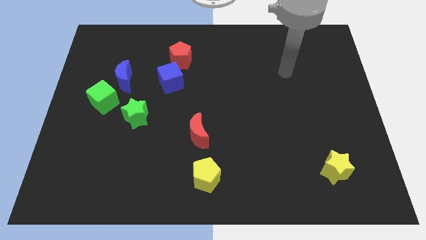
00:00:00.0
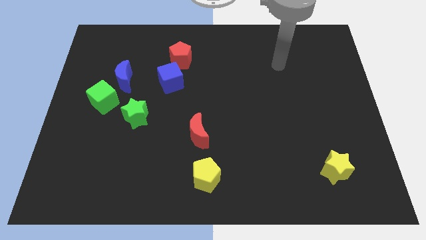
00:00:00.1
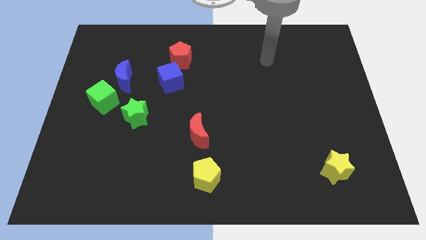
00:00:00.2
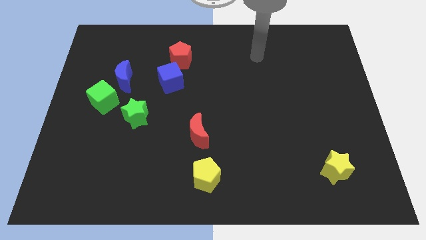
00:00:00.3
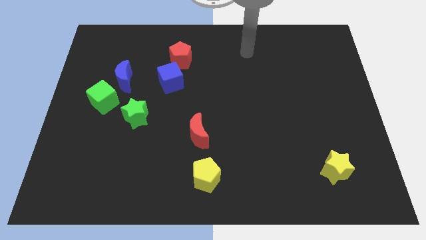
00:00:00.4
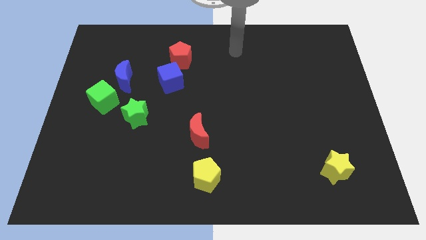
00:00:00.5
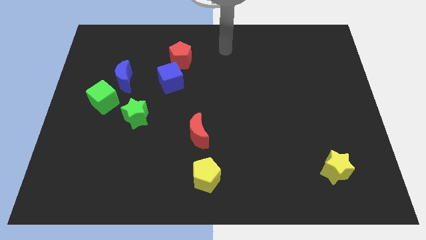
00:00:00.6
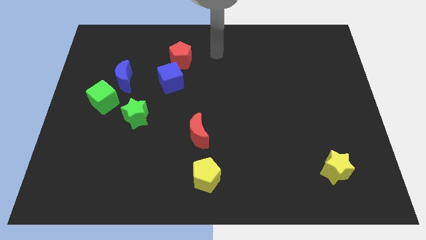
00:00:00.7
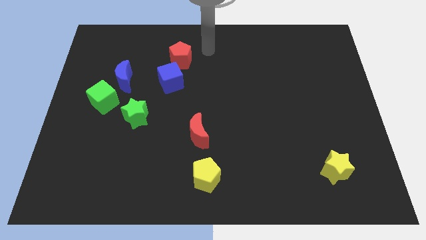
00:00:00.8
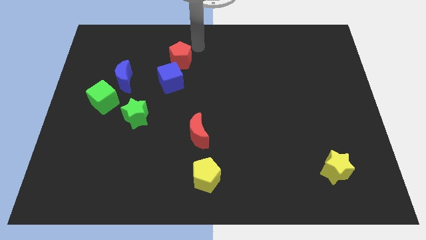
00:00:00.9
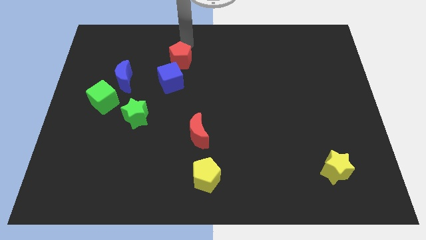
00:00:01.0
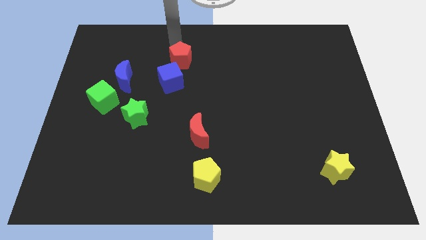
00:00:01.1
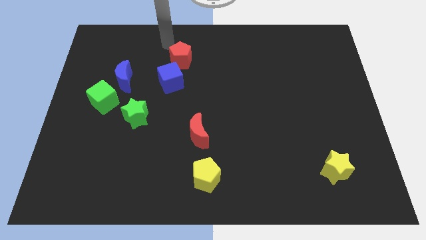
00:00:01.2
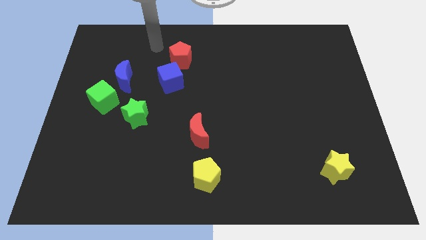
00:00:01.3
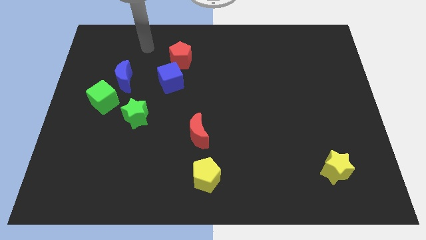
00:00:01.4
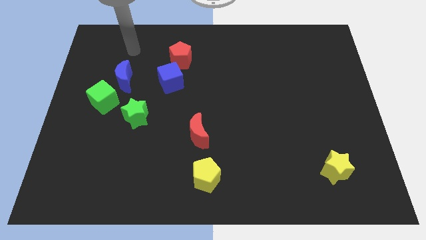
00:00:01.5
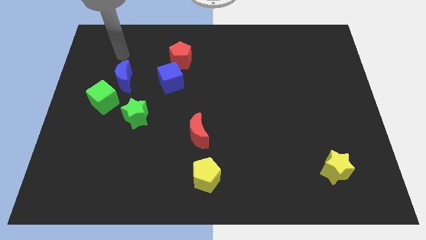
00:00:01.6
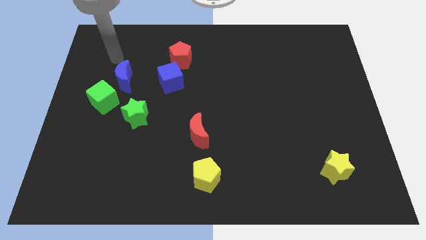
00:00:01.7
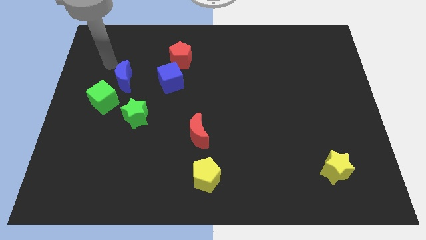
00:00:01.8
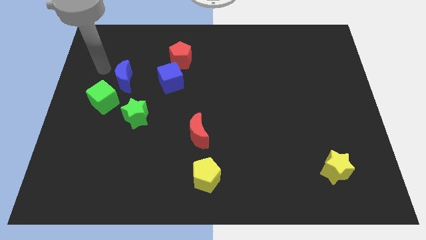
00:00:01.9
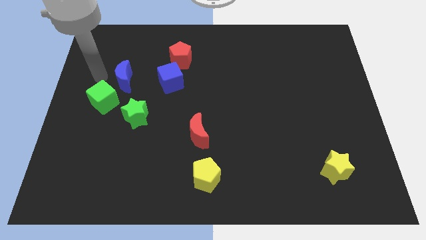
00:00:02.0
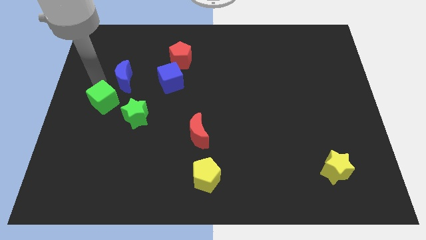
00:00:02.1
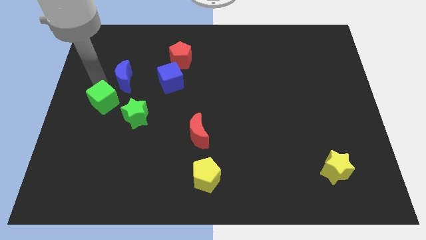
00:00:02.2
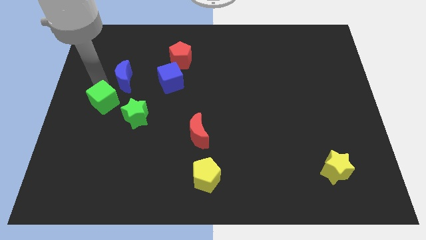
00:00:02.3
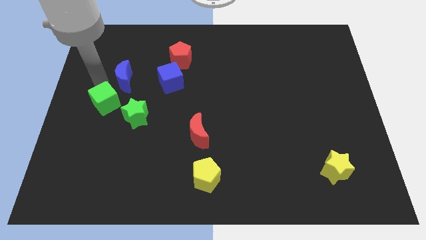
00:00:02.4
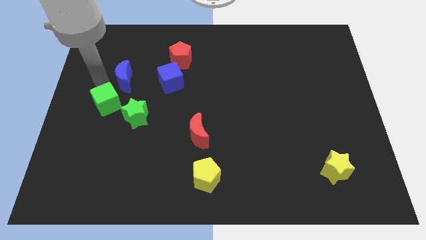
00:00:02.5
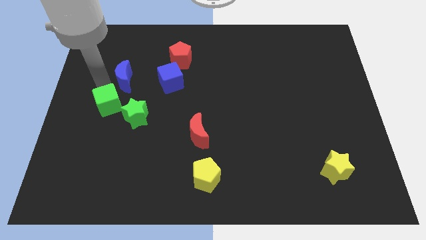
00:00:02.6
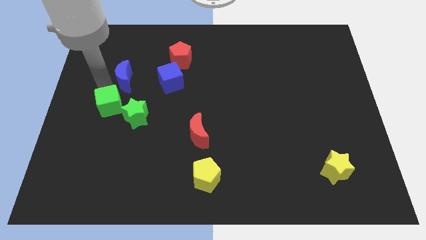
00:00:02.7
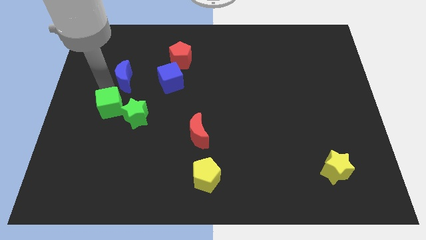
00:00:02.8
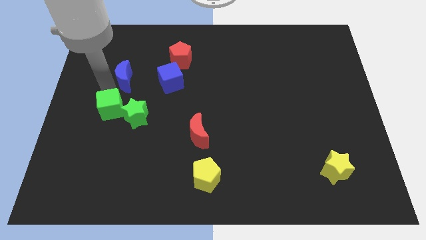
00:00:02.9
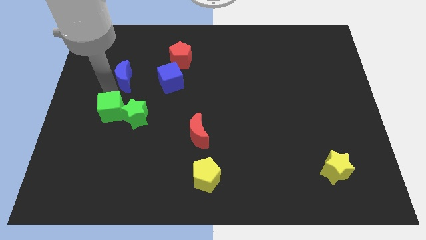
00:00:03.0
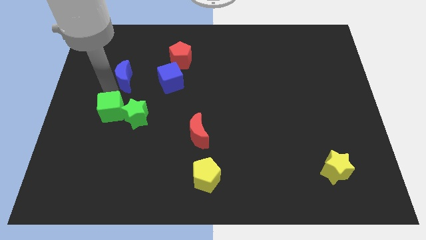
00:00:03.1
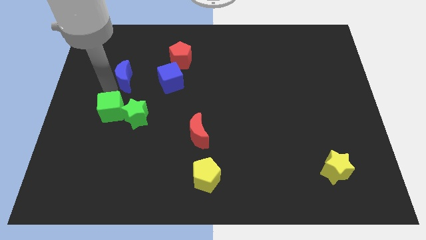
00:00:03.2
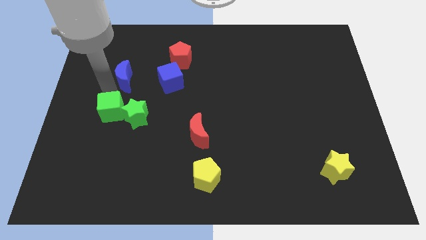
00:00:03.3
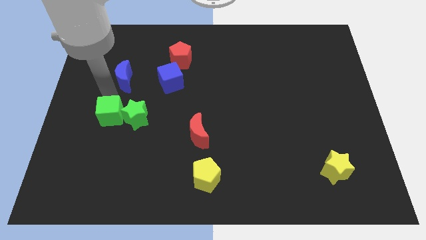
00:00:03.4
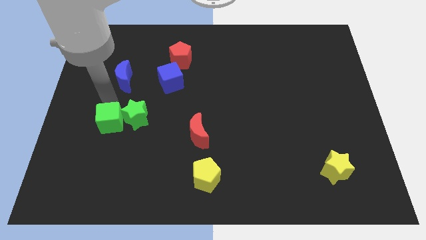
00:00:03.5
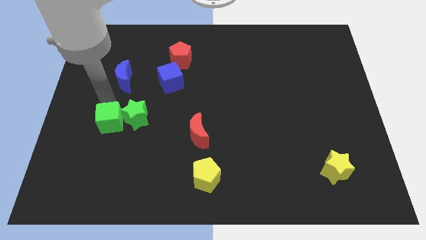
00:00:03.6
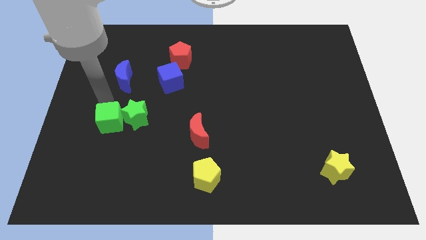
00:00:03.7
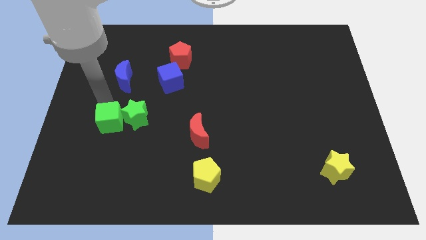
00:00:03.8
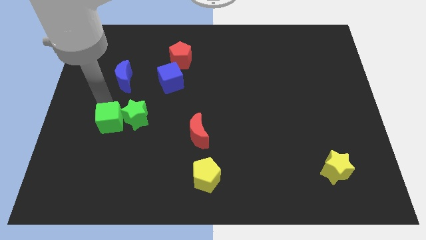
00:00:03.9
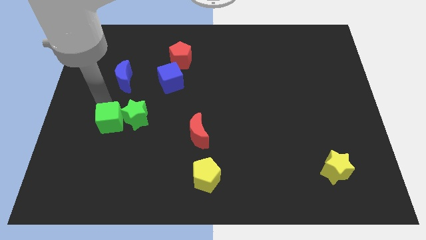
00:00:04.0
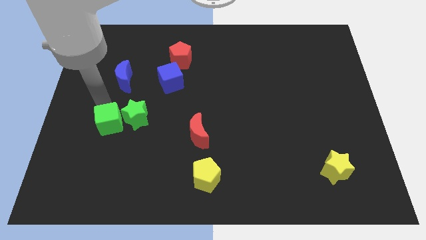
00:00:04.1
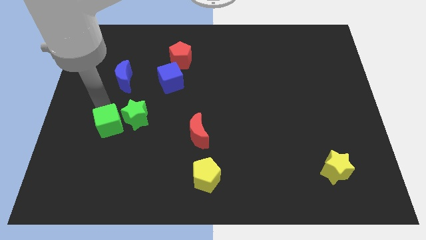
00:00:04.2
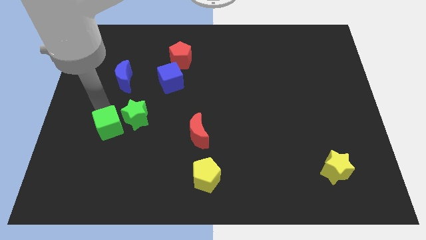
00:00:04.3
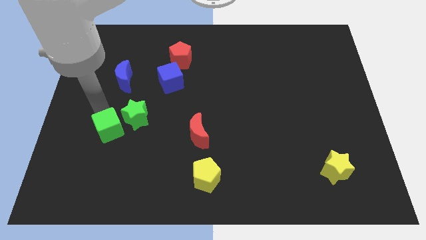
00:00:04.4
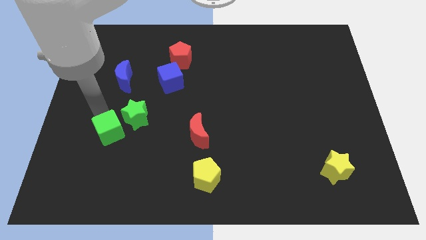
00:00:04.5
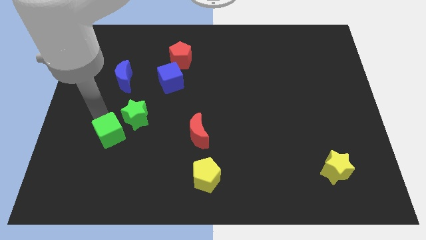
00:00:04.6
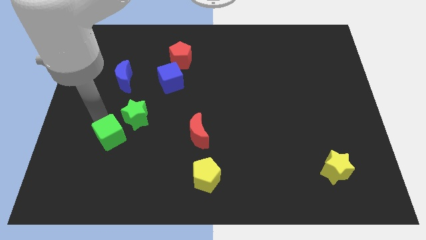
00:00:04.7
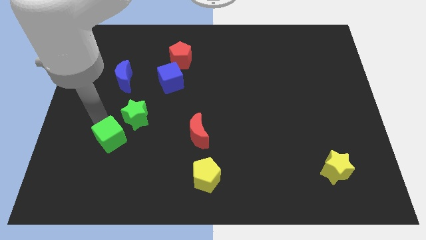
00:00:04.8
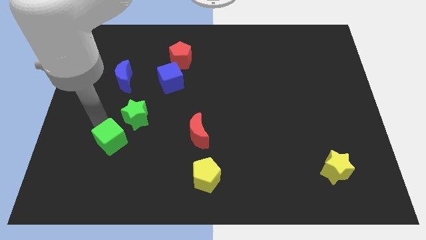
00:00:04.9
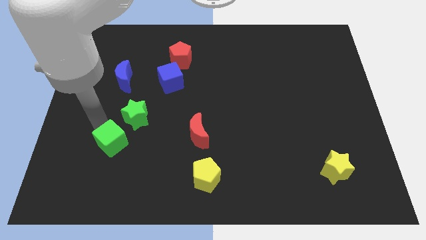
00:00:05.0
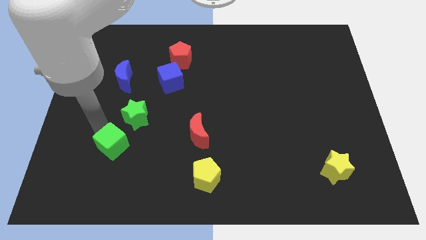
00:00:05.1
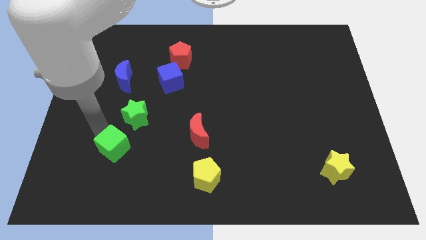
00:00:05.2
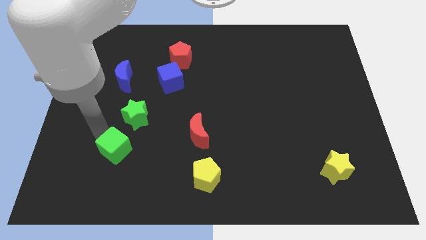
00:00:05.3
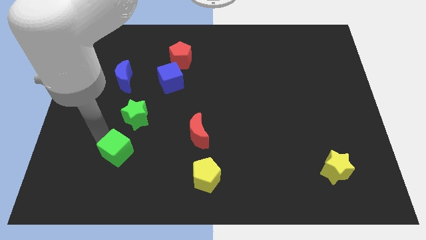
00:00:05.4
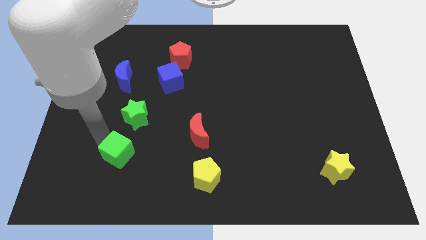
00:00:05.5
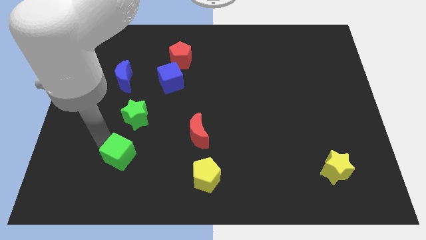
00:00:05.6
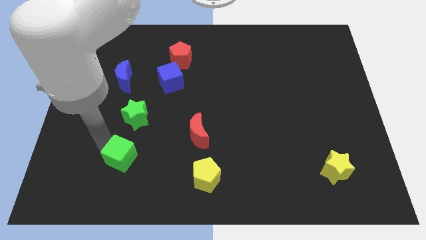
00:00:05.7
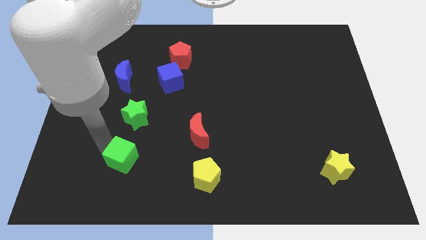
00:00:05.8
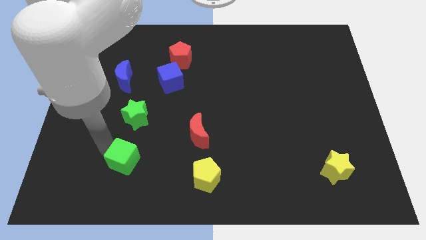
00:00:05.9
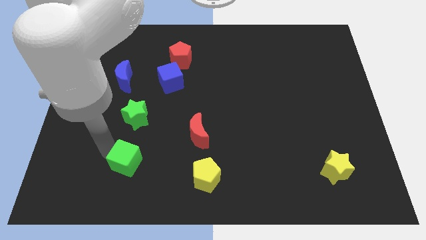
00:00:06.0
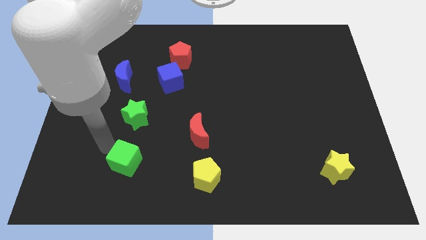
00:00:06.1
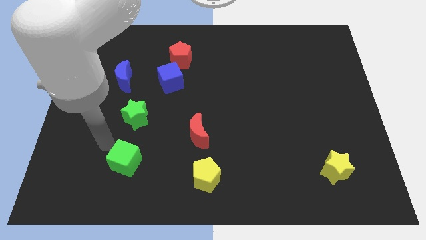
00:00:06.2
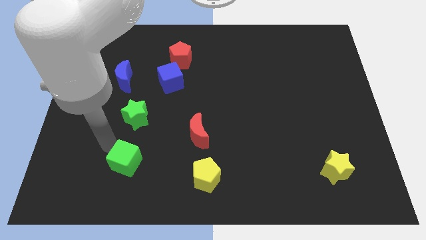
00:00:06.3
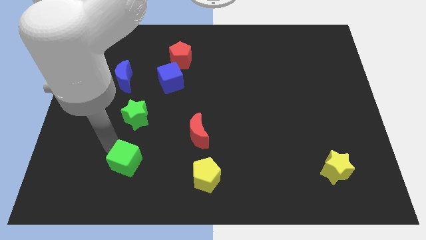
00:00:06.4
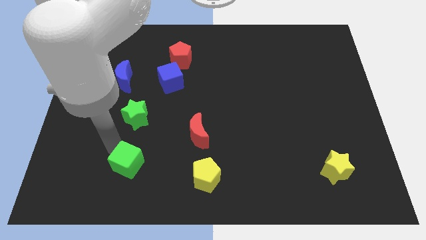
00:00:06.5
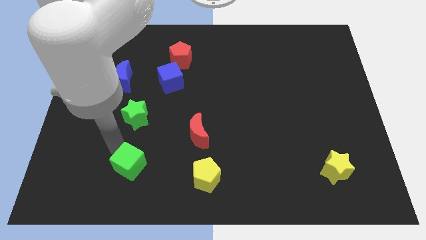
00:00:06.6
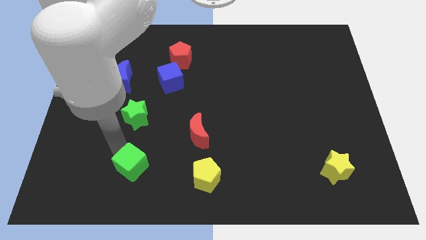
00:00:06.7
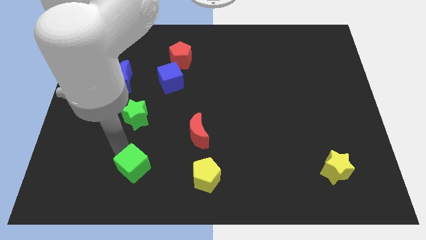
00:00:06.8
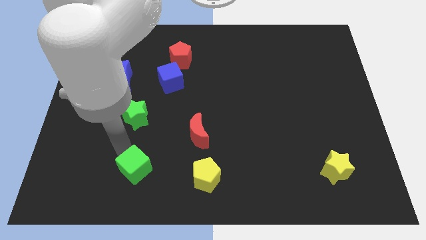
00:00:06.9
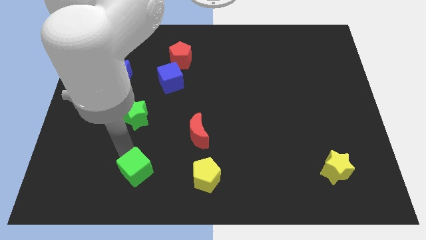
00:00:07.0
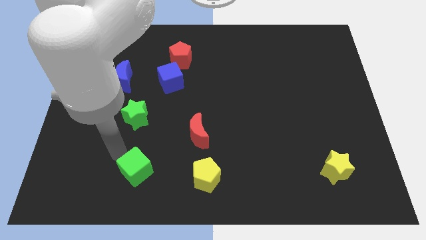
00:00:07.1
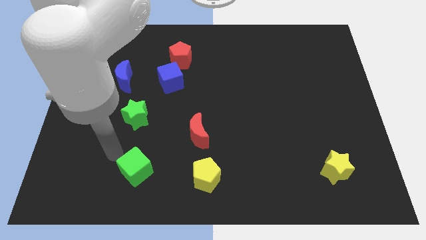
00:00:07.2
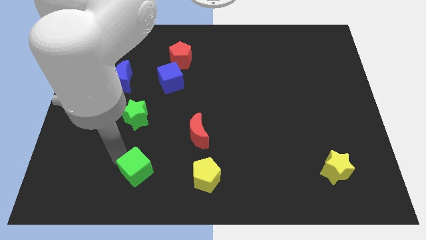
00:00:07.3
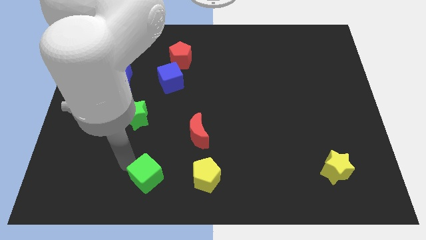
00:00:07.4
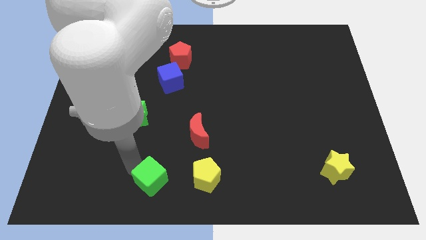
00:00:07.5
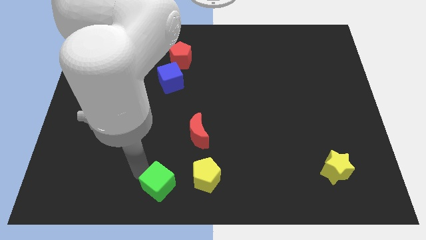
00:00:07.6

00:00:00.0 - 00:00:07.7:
move the green cube to the bottom
